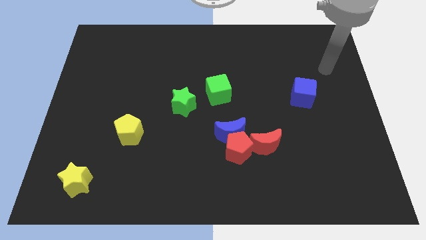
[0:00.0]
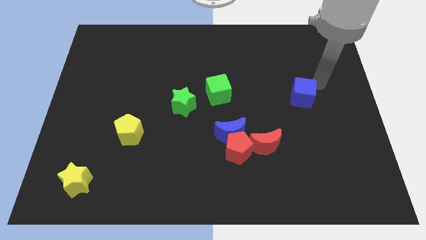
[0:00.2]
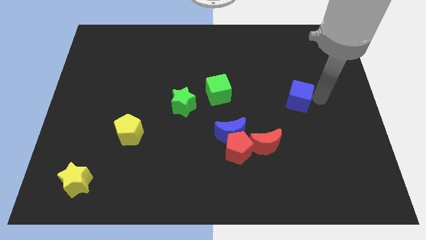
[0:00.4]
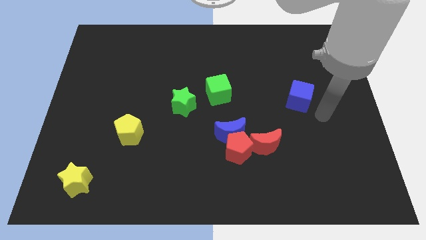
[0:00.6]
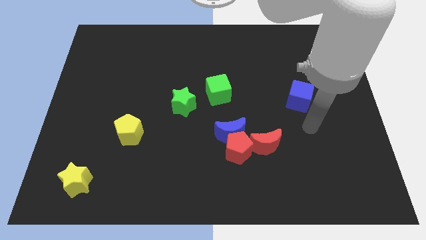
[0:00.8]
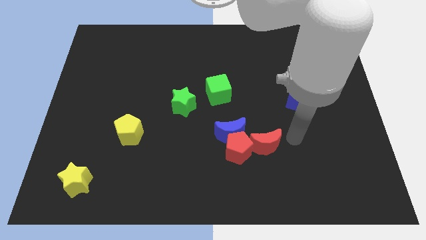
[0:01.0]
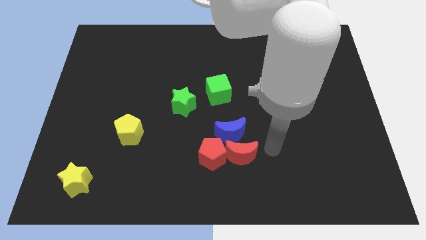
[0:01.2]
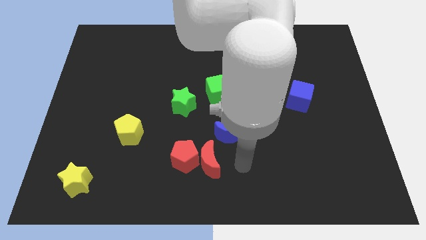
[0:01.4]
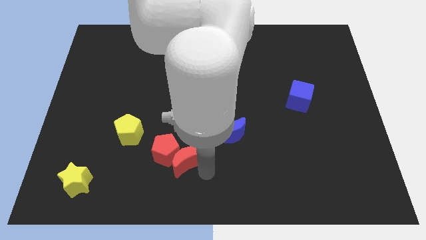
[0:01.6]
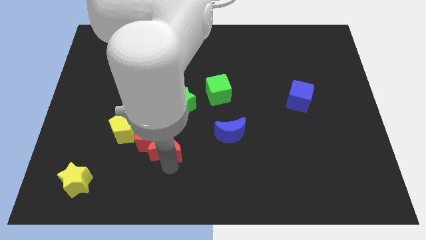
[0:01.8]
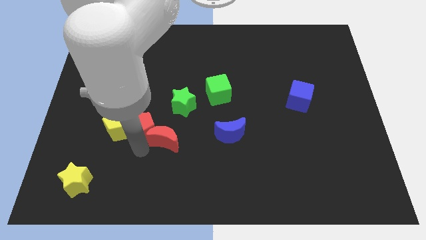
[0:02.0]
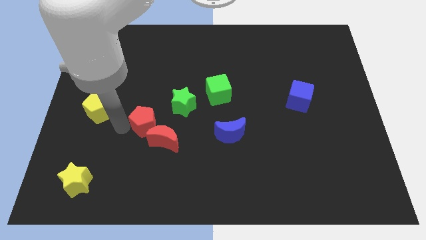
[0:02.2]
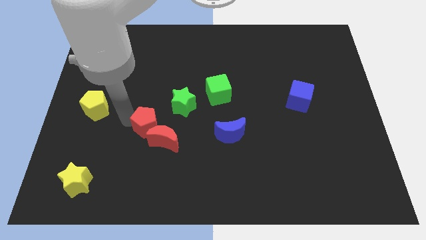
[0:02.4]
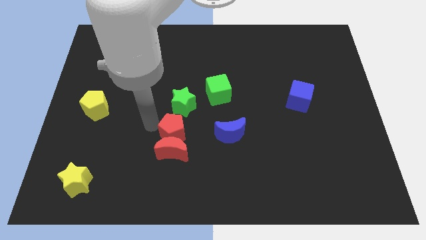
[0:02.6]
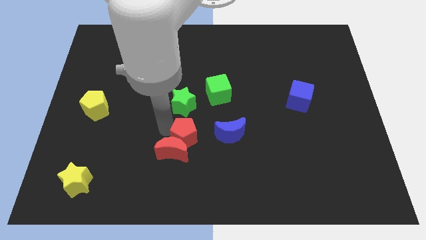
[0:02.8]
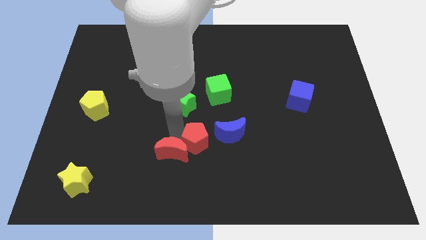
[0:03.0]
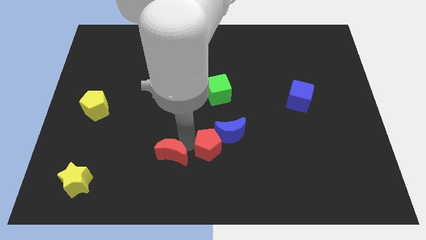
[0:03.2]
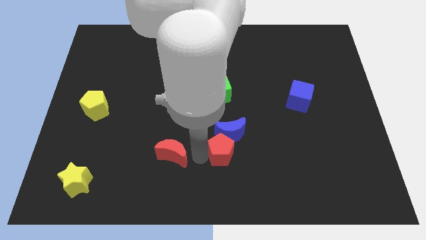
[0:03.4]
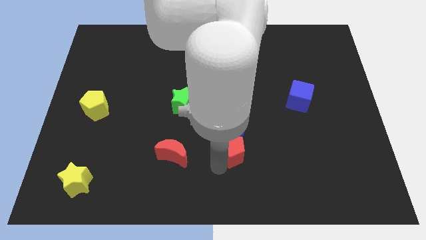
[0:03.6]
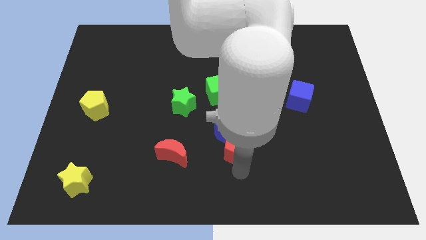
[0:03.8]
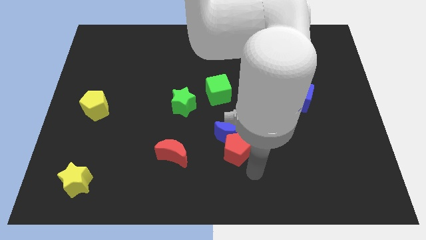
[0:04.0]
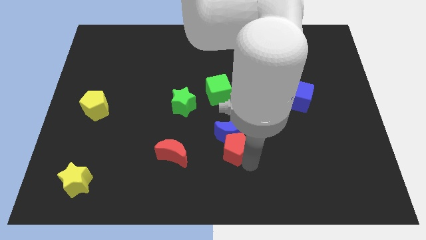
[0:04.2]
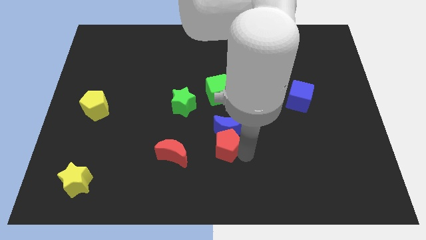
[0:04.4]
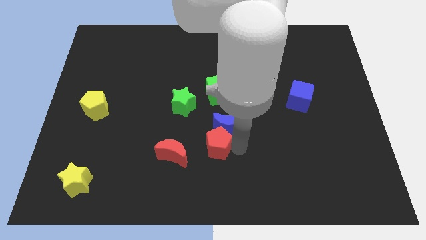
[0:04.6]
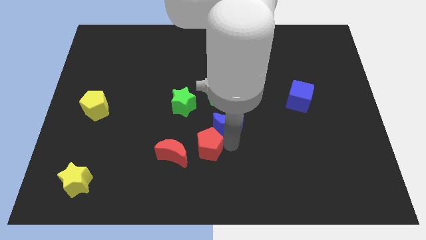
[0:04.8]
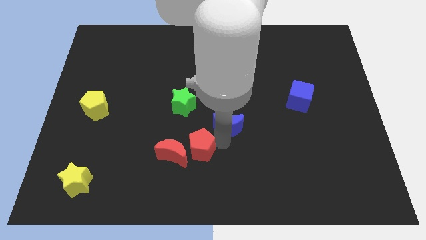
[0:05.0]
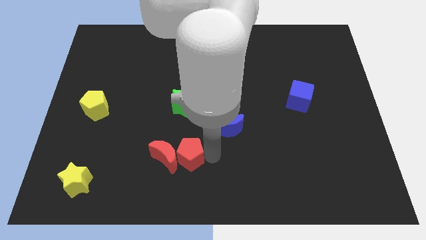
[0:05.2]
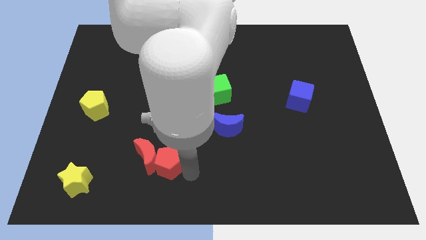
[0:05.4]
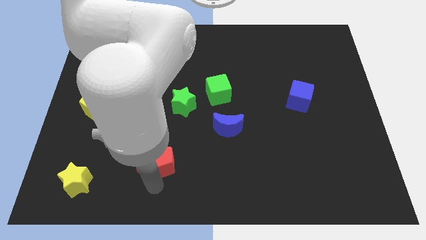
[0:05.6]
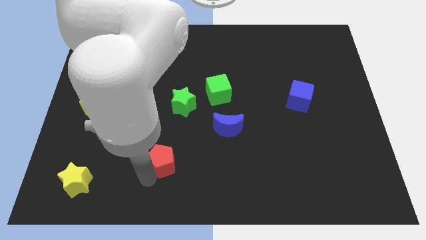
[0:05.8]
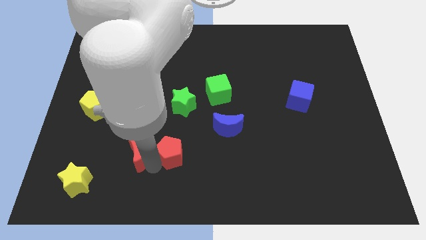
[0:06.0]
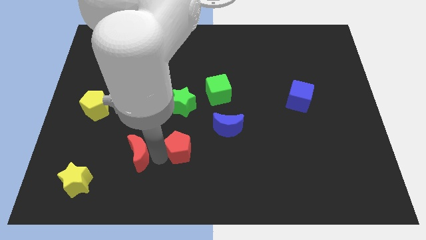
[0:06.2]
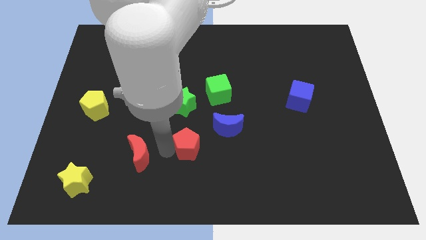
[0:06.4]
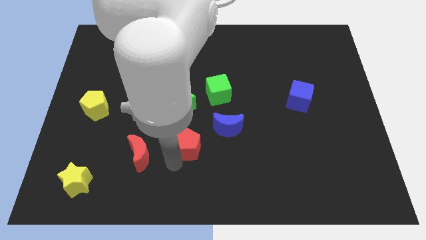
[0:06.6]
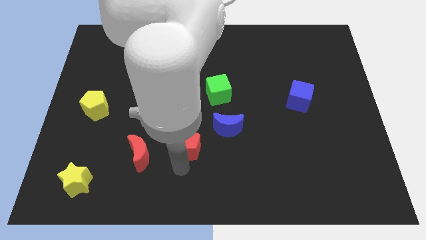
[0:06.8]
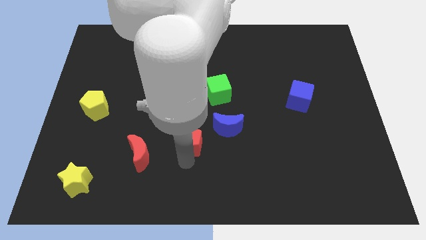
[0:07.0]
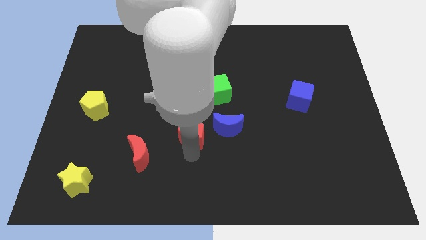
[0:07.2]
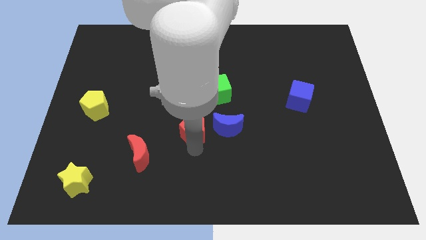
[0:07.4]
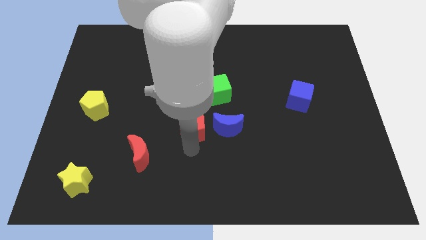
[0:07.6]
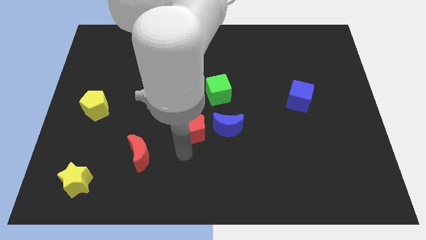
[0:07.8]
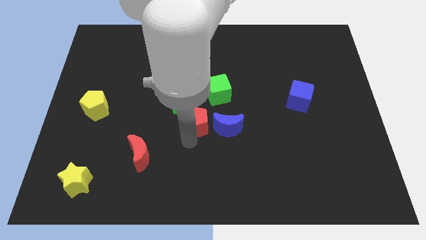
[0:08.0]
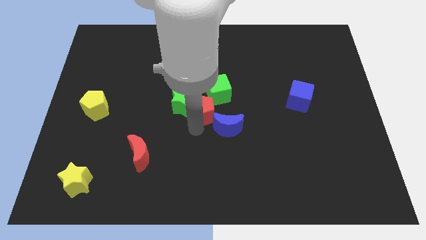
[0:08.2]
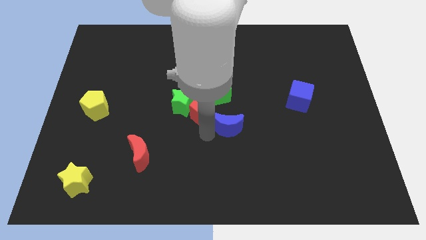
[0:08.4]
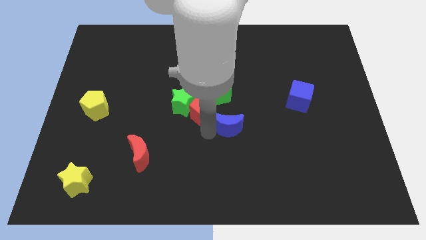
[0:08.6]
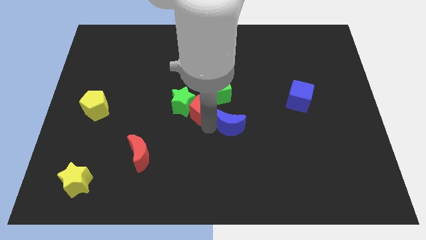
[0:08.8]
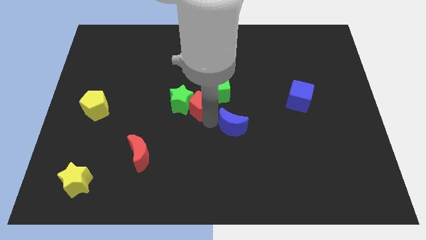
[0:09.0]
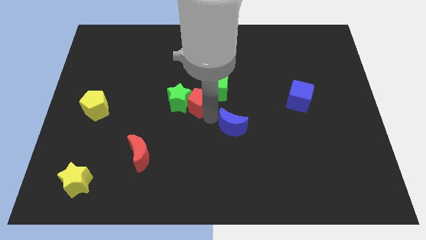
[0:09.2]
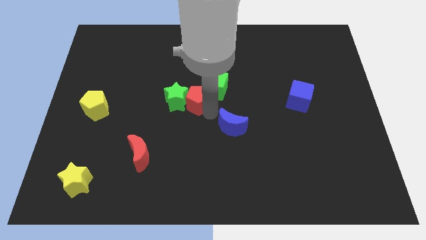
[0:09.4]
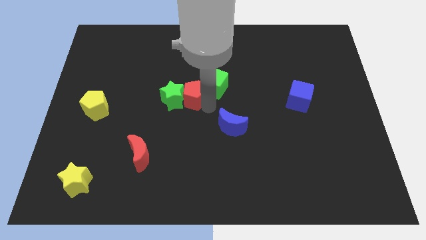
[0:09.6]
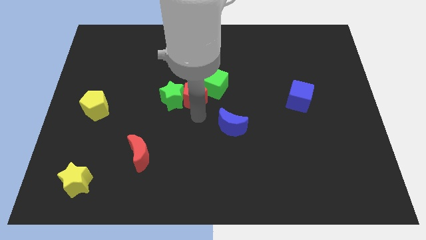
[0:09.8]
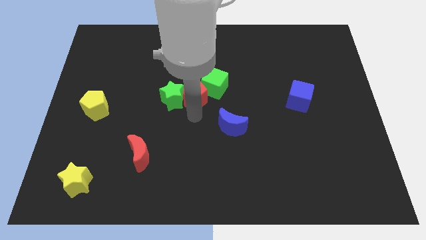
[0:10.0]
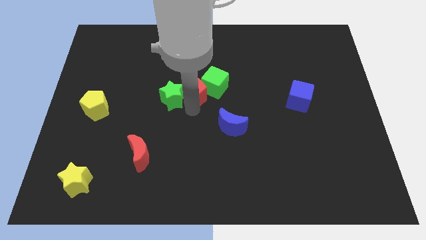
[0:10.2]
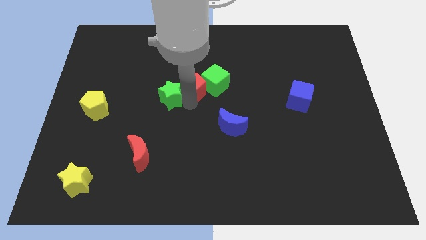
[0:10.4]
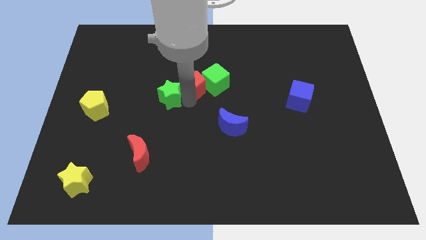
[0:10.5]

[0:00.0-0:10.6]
slide the red pentagon to the top left side of the green cube

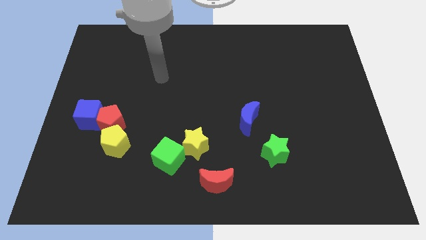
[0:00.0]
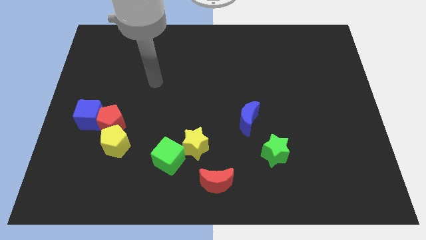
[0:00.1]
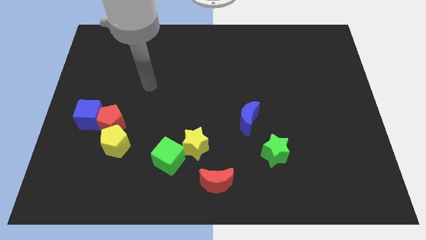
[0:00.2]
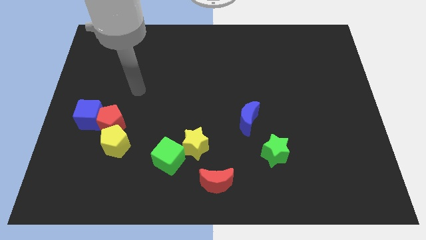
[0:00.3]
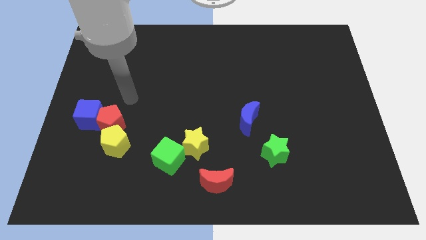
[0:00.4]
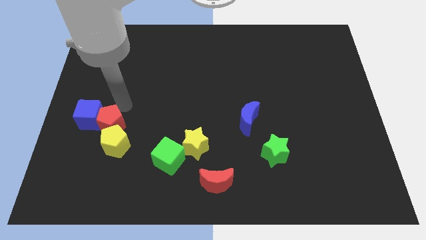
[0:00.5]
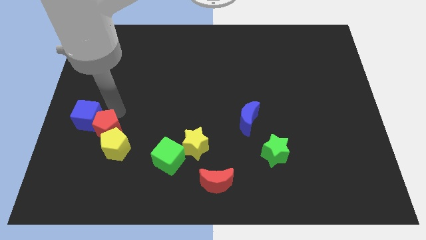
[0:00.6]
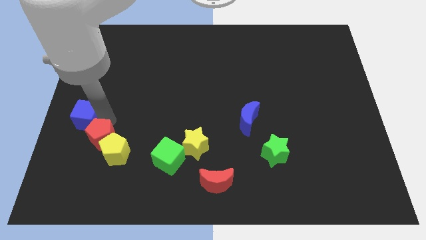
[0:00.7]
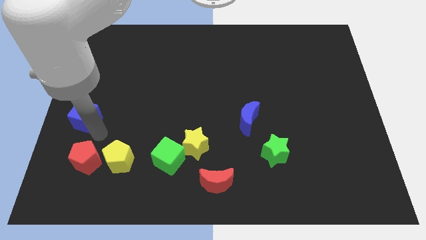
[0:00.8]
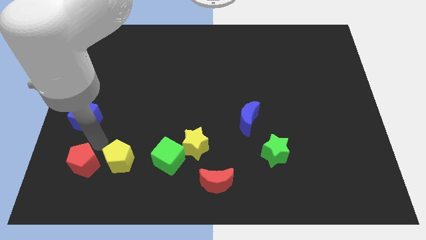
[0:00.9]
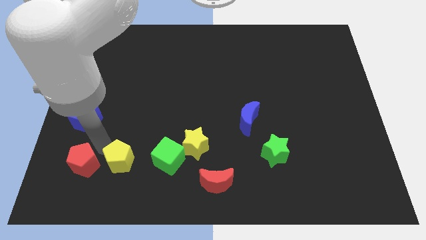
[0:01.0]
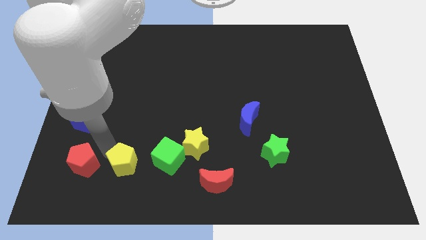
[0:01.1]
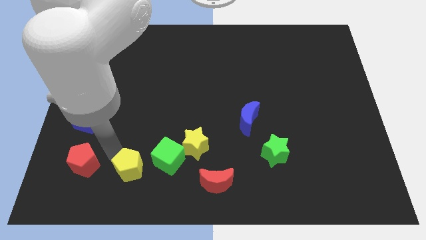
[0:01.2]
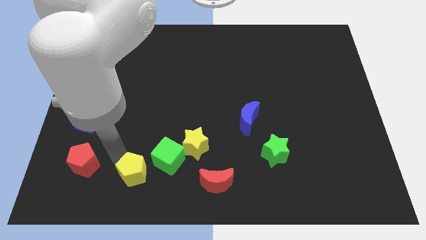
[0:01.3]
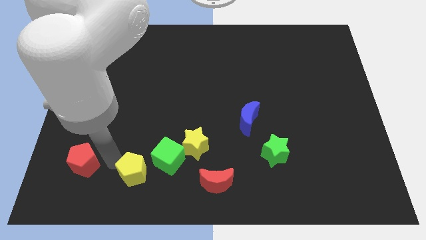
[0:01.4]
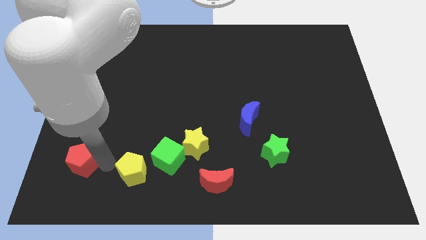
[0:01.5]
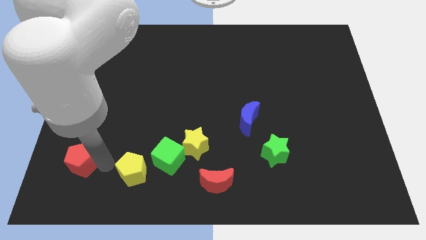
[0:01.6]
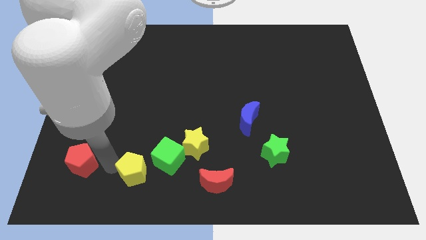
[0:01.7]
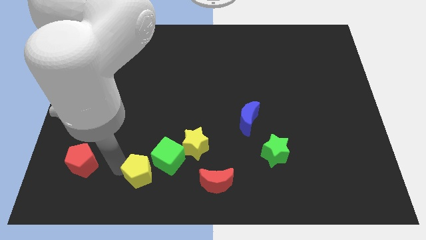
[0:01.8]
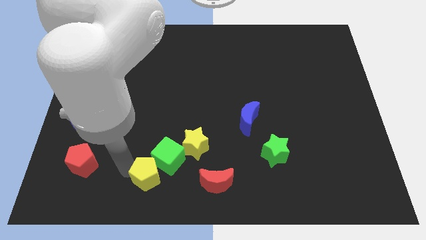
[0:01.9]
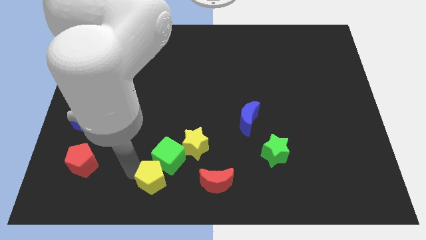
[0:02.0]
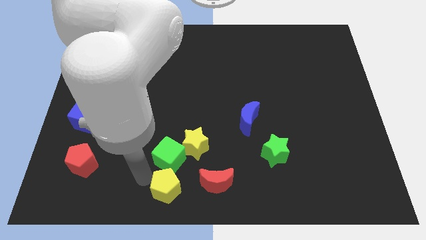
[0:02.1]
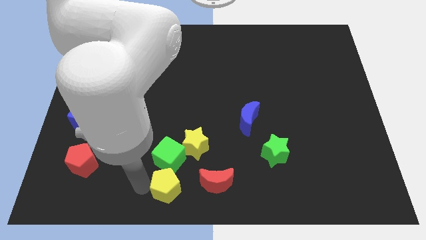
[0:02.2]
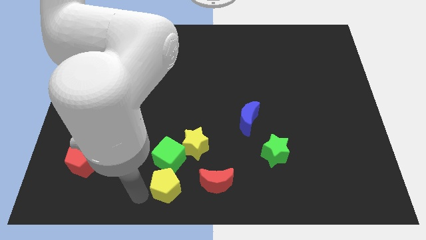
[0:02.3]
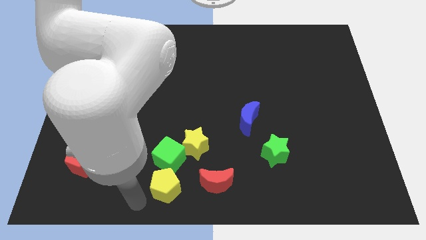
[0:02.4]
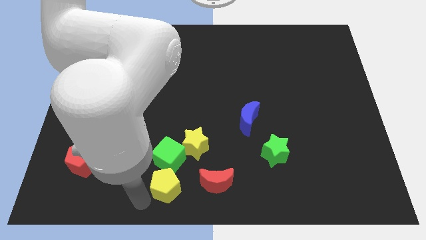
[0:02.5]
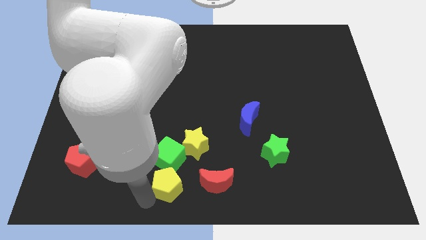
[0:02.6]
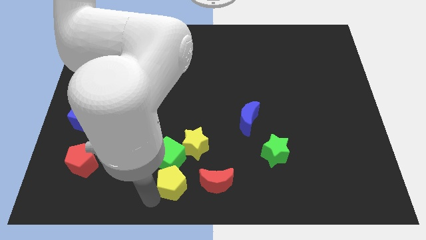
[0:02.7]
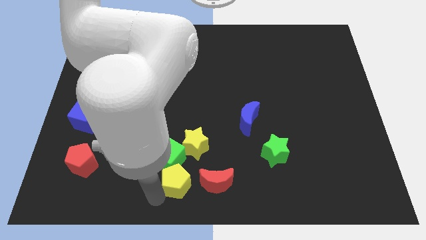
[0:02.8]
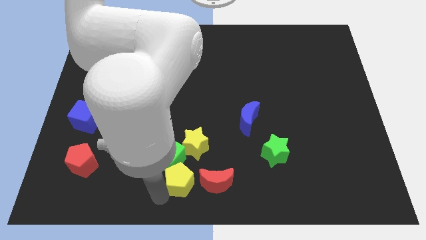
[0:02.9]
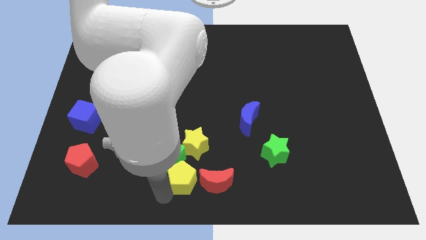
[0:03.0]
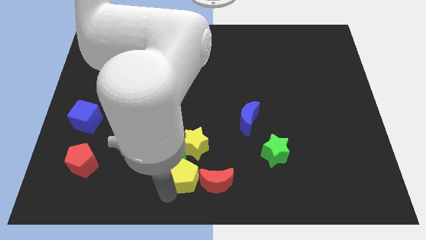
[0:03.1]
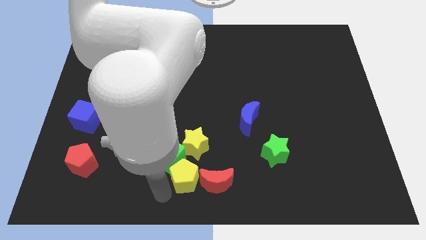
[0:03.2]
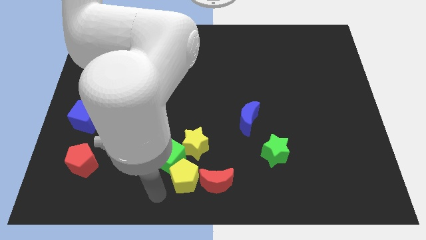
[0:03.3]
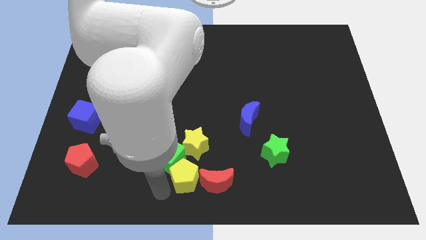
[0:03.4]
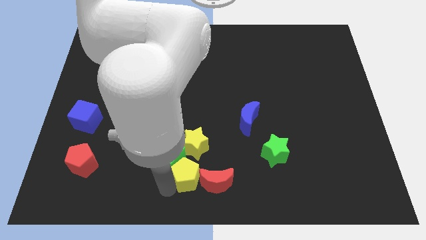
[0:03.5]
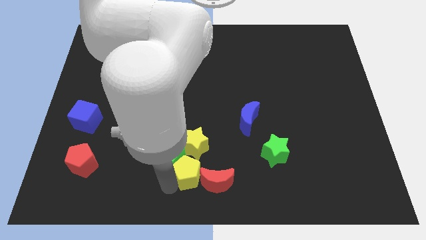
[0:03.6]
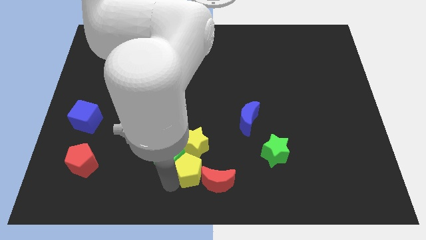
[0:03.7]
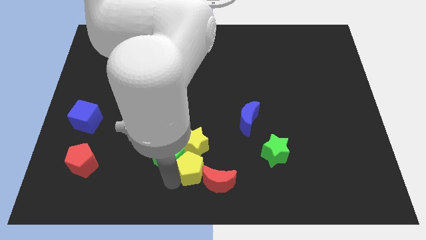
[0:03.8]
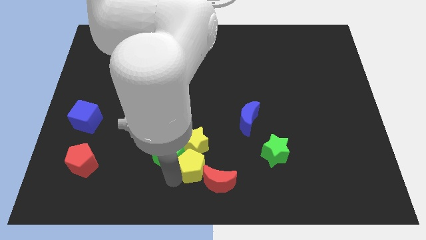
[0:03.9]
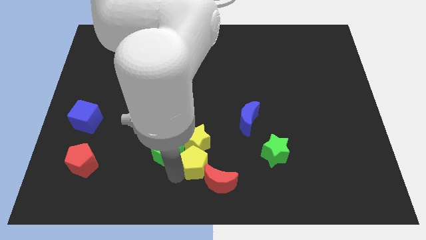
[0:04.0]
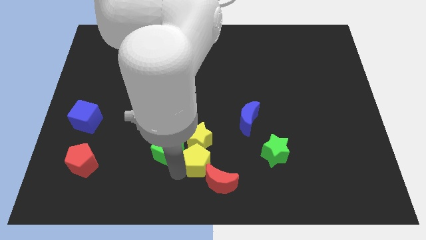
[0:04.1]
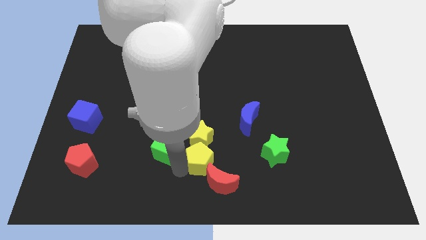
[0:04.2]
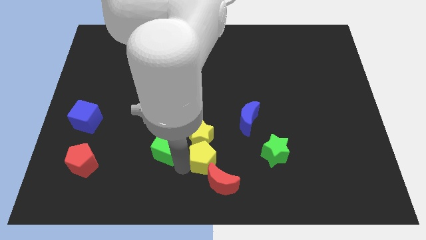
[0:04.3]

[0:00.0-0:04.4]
move the yellow pentagon to the left of the green star
